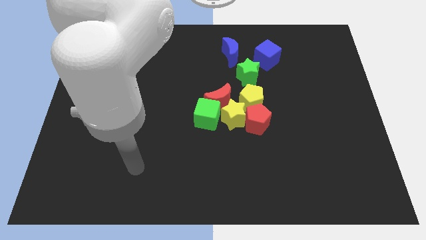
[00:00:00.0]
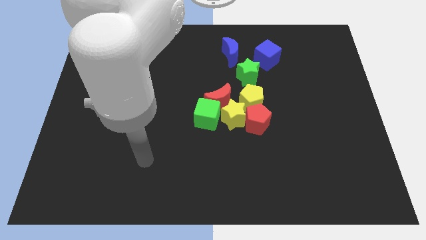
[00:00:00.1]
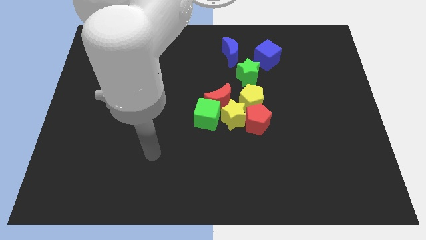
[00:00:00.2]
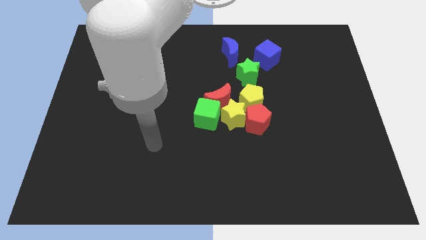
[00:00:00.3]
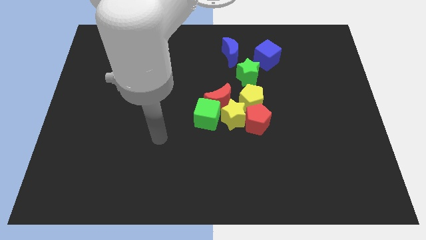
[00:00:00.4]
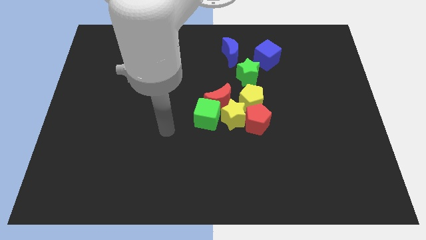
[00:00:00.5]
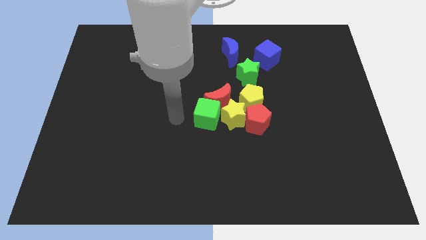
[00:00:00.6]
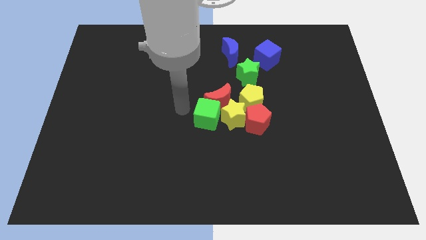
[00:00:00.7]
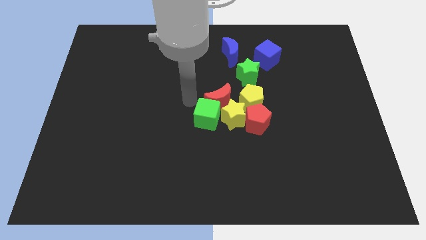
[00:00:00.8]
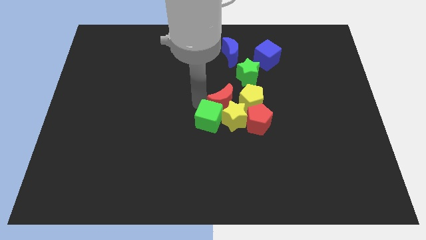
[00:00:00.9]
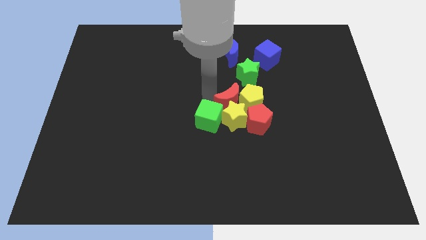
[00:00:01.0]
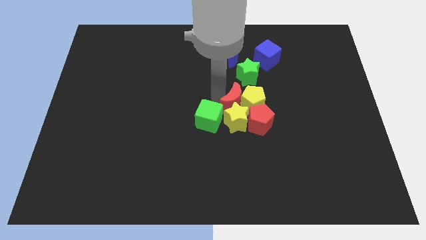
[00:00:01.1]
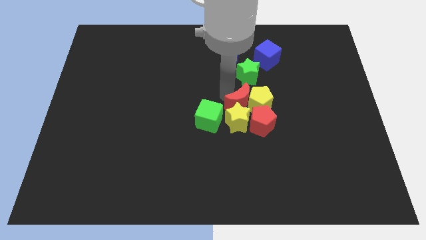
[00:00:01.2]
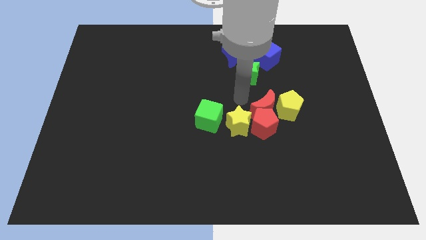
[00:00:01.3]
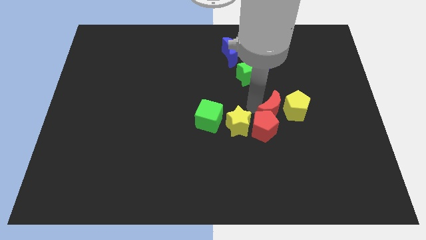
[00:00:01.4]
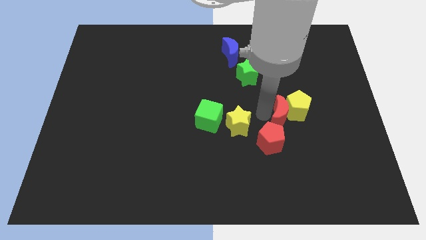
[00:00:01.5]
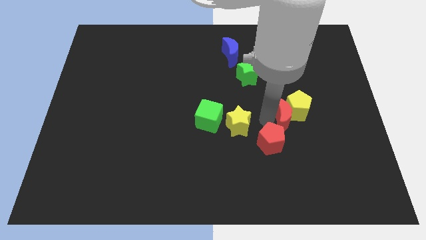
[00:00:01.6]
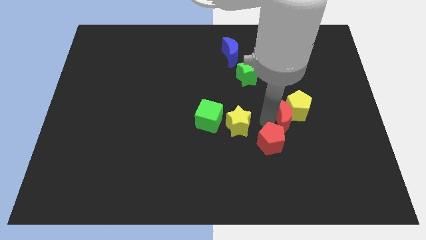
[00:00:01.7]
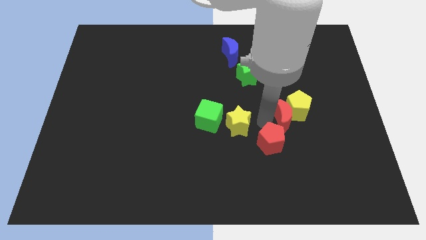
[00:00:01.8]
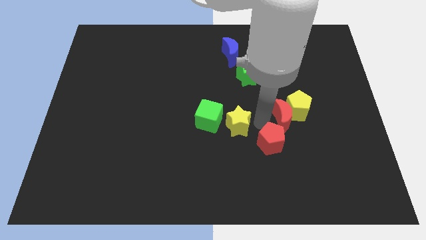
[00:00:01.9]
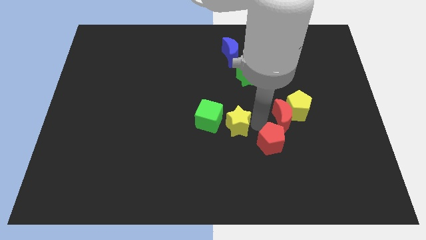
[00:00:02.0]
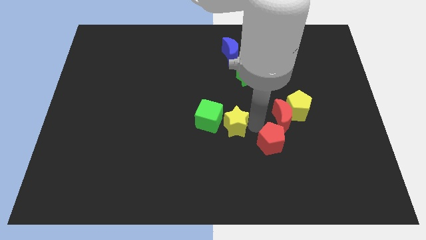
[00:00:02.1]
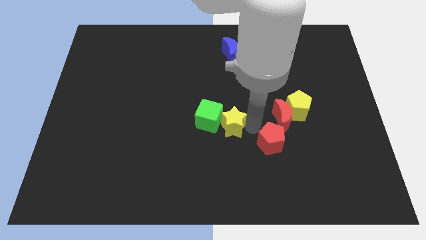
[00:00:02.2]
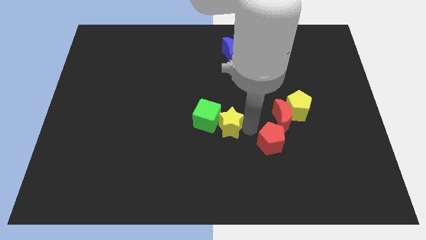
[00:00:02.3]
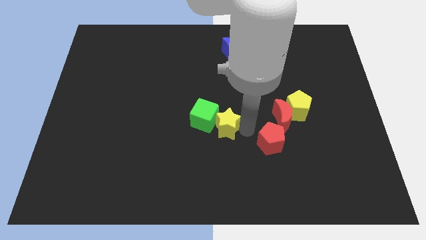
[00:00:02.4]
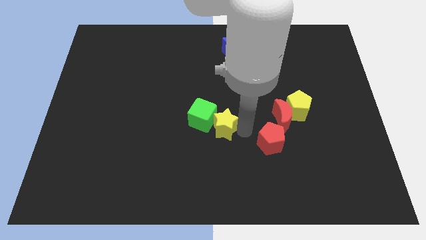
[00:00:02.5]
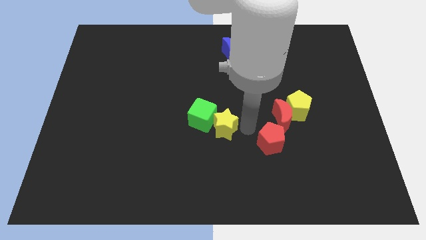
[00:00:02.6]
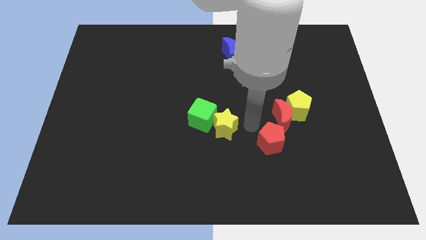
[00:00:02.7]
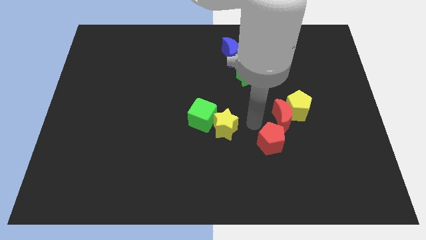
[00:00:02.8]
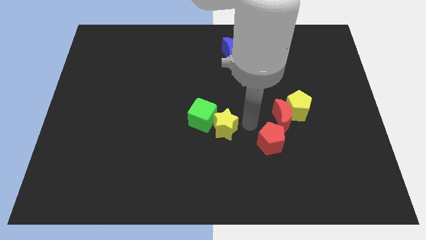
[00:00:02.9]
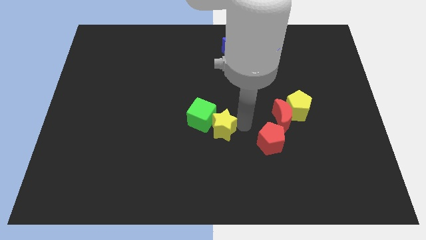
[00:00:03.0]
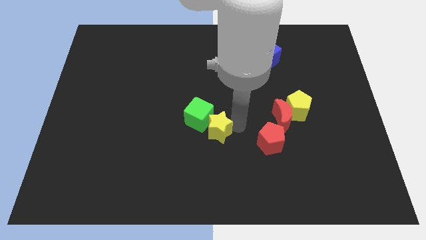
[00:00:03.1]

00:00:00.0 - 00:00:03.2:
separate the yellow star from the clump

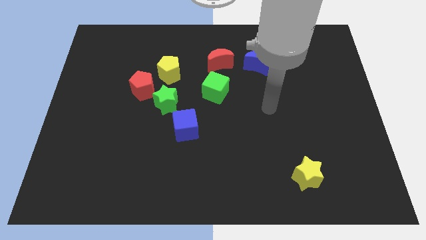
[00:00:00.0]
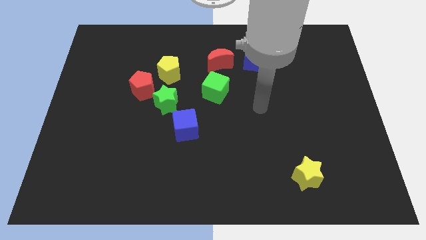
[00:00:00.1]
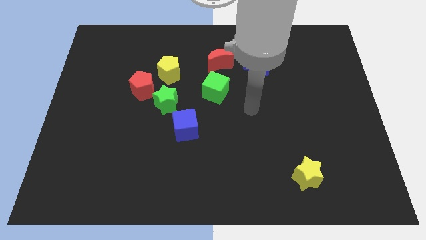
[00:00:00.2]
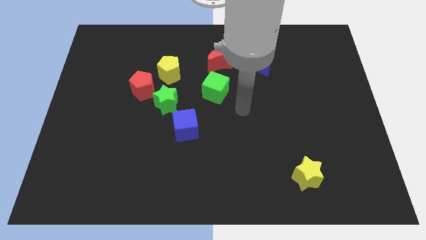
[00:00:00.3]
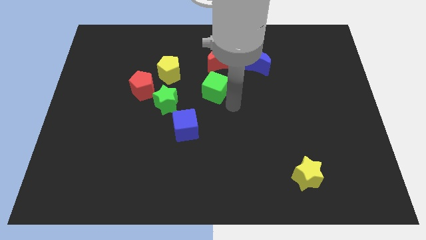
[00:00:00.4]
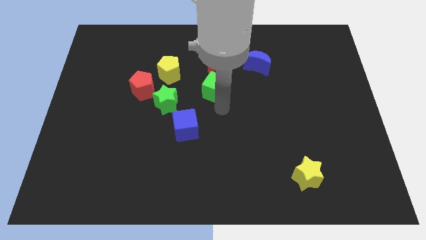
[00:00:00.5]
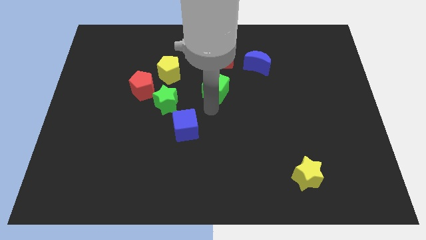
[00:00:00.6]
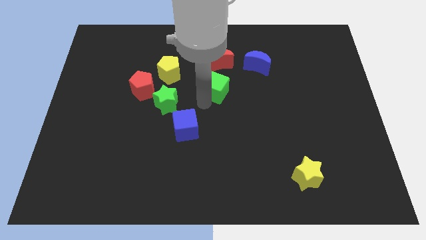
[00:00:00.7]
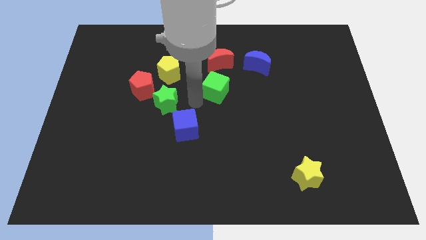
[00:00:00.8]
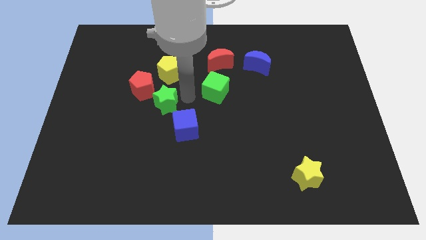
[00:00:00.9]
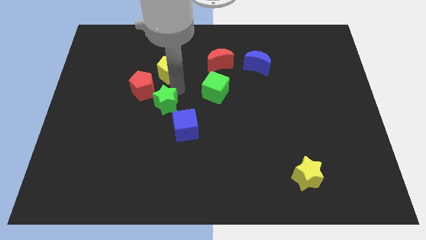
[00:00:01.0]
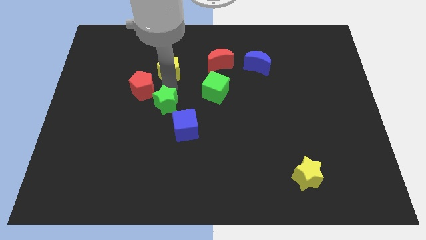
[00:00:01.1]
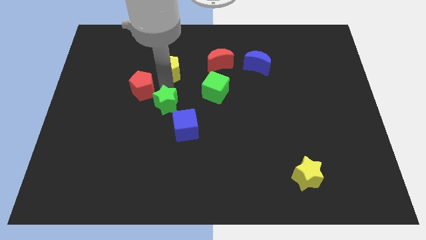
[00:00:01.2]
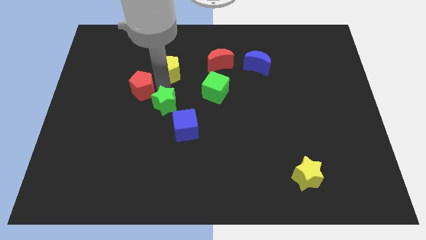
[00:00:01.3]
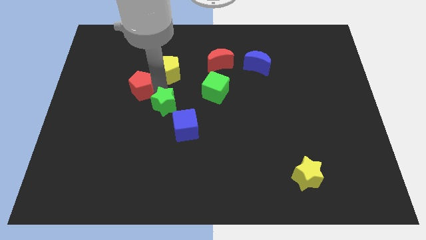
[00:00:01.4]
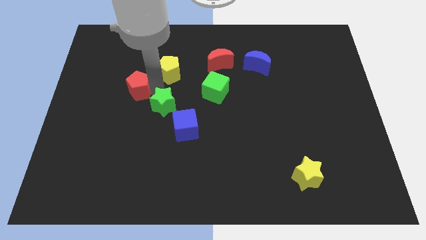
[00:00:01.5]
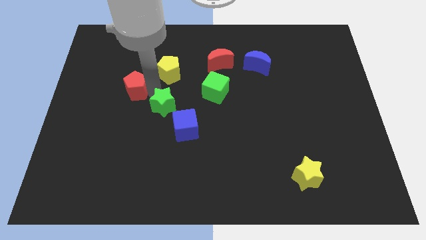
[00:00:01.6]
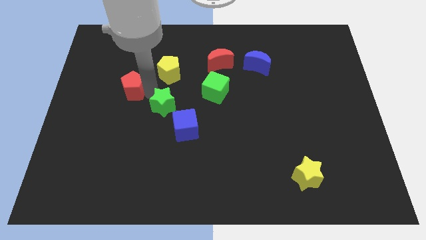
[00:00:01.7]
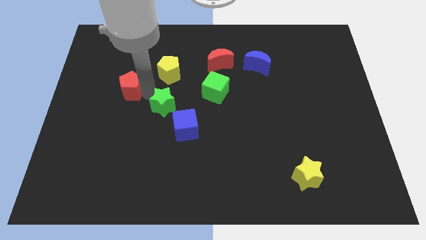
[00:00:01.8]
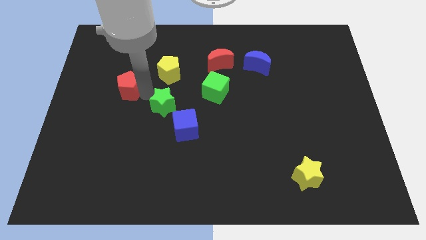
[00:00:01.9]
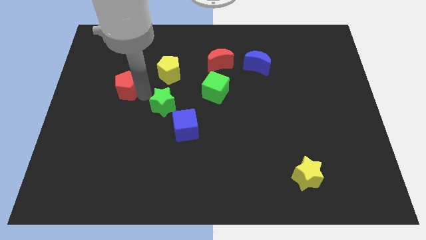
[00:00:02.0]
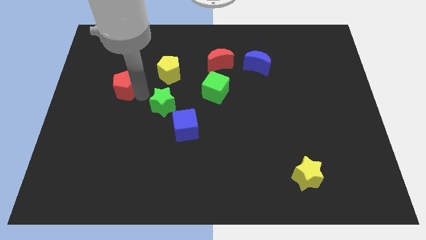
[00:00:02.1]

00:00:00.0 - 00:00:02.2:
pull the red pentagon apart from the green star and yellow pentagon

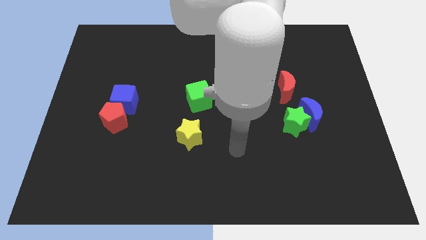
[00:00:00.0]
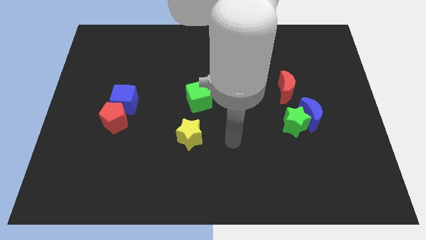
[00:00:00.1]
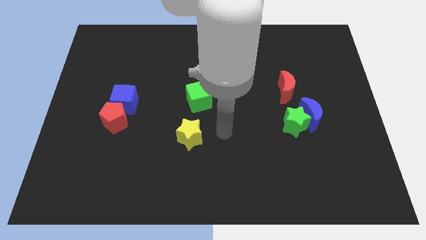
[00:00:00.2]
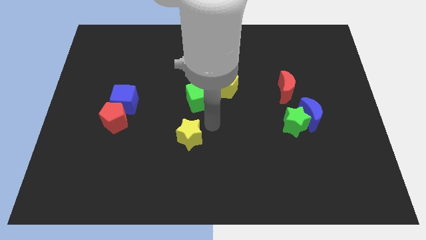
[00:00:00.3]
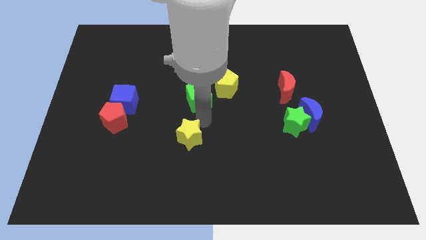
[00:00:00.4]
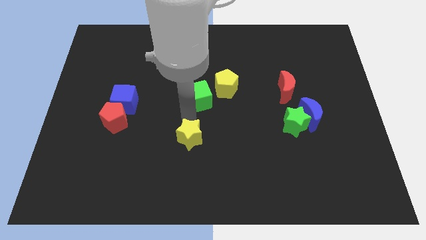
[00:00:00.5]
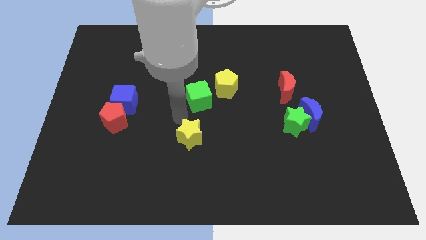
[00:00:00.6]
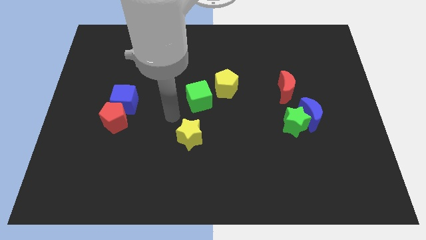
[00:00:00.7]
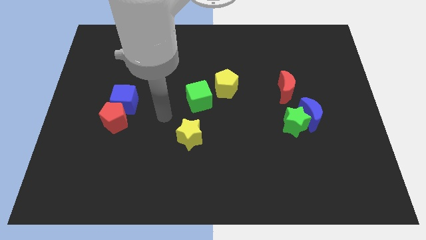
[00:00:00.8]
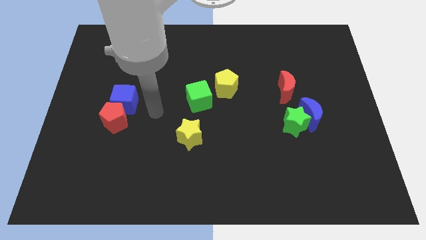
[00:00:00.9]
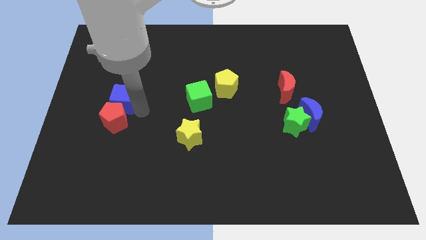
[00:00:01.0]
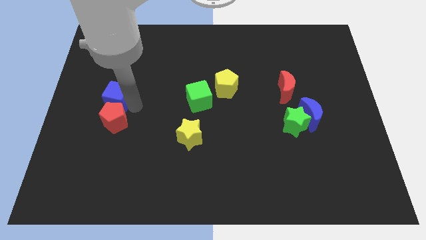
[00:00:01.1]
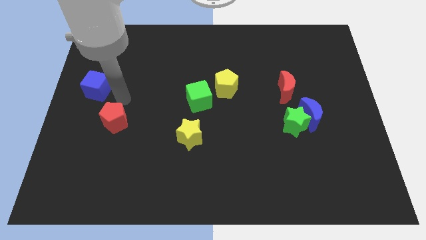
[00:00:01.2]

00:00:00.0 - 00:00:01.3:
separate the red pentagon from the blue cube

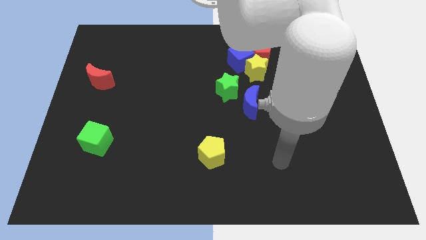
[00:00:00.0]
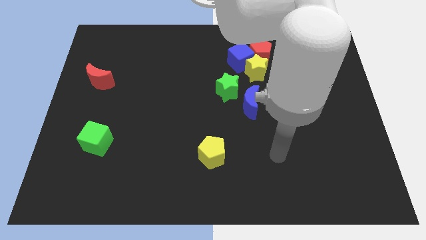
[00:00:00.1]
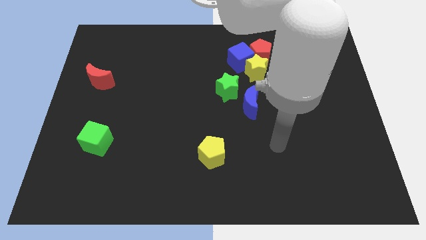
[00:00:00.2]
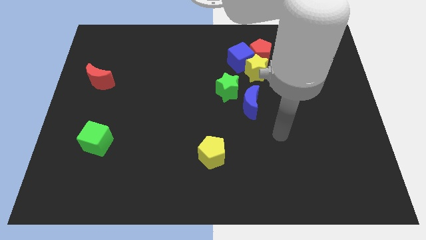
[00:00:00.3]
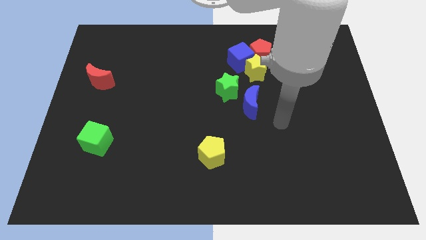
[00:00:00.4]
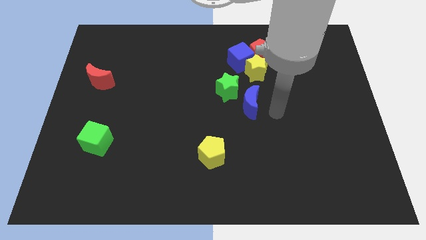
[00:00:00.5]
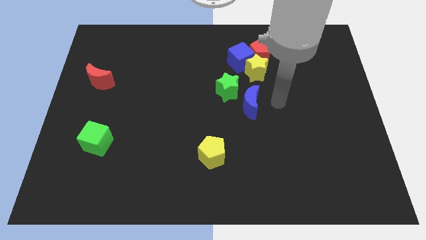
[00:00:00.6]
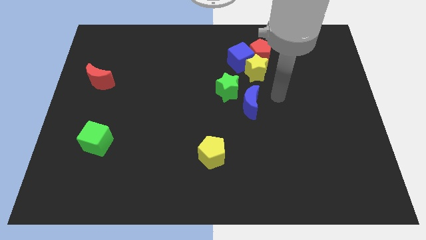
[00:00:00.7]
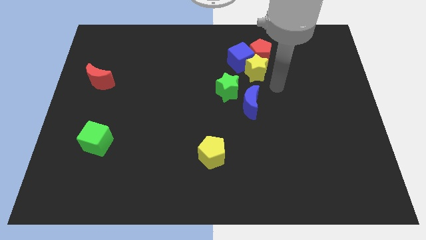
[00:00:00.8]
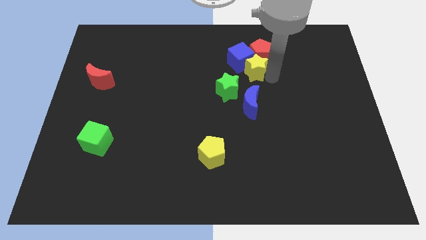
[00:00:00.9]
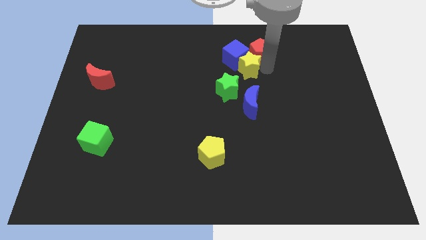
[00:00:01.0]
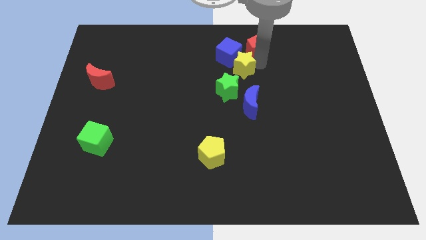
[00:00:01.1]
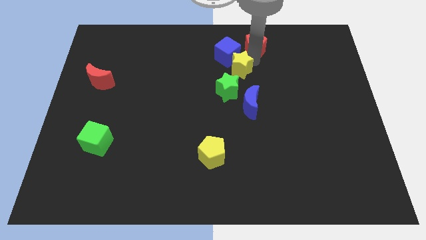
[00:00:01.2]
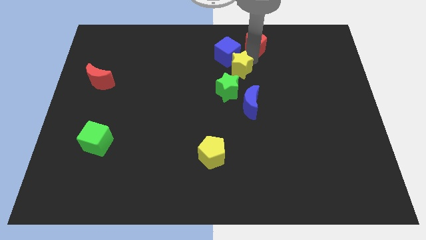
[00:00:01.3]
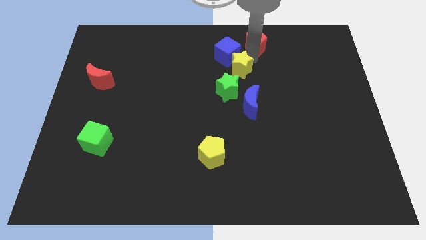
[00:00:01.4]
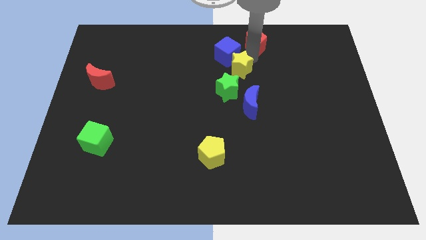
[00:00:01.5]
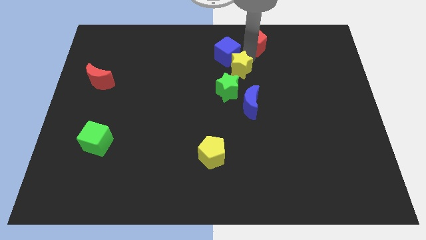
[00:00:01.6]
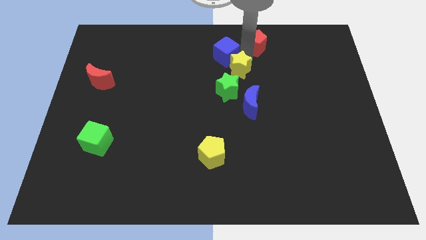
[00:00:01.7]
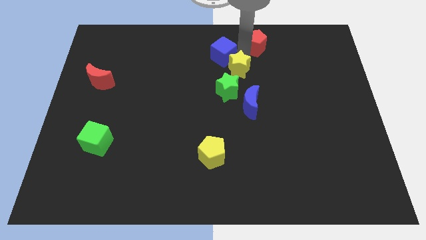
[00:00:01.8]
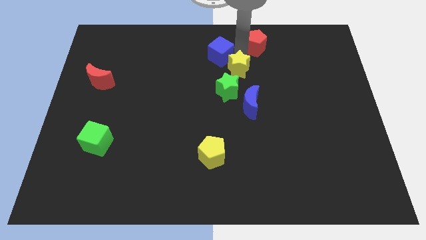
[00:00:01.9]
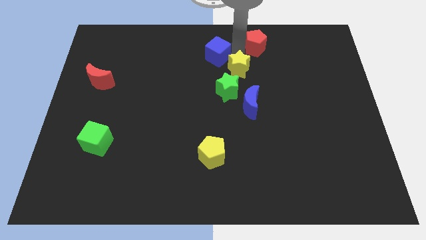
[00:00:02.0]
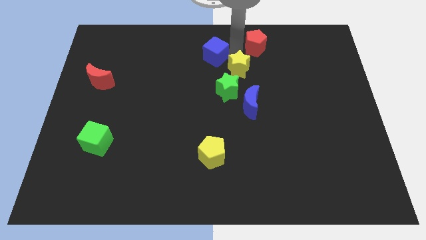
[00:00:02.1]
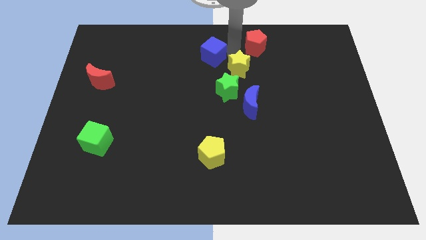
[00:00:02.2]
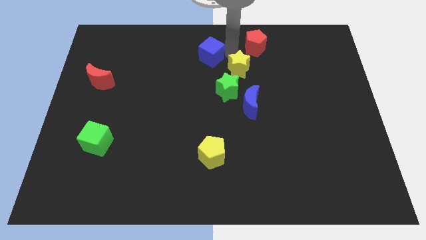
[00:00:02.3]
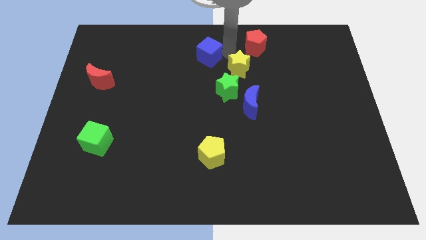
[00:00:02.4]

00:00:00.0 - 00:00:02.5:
pull the blue cube apart from the yellow star and red pentagon

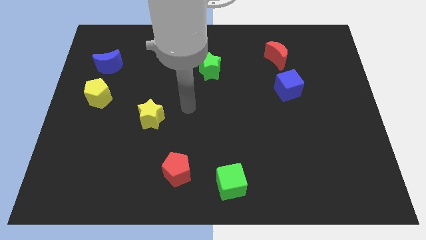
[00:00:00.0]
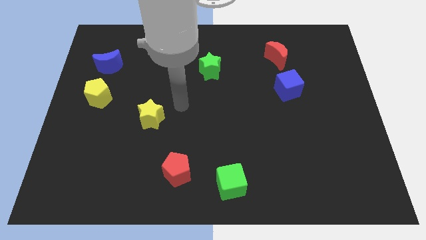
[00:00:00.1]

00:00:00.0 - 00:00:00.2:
move the blue moon away from the yellow pentagon
